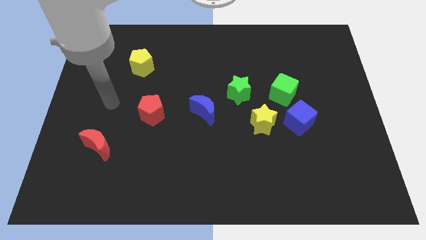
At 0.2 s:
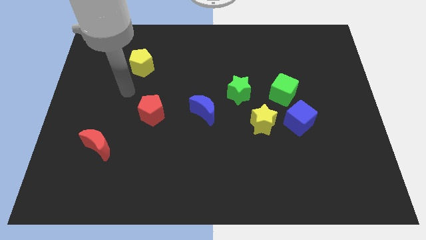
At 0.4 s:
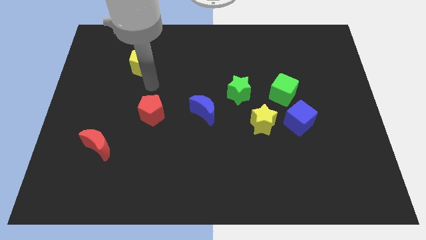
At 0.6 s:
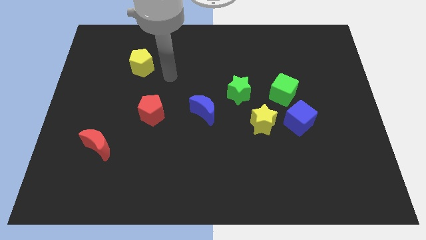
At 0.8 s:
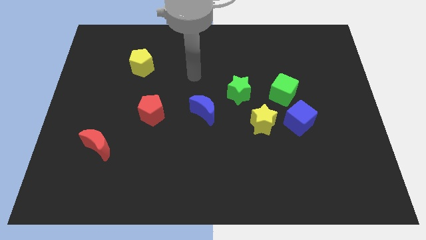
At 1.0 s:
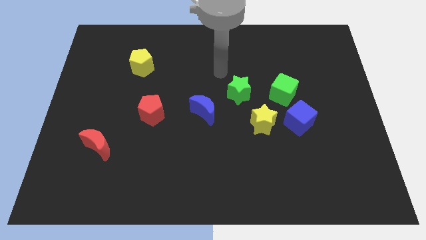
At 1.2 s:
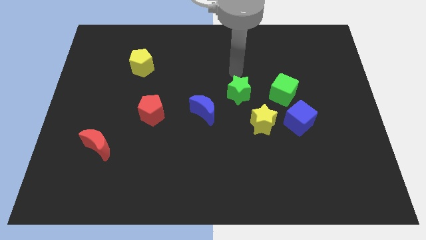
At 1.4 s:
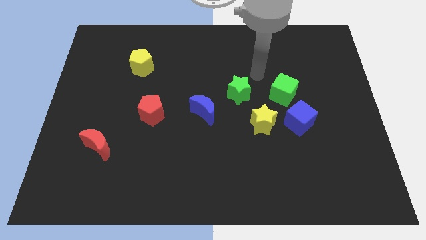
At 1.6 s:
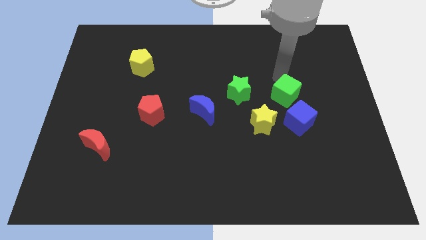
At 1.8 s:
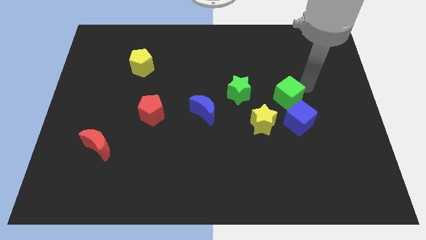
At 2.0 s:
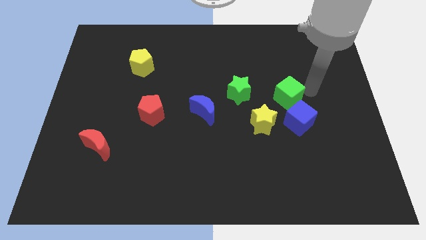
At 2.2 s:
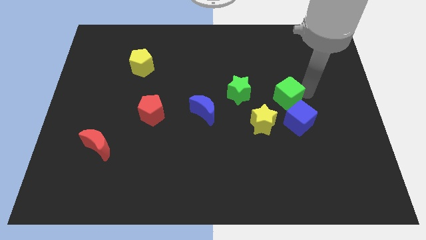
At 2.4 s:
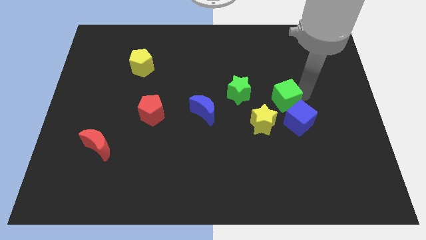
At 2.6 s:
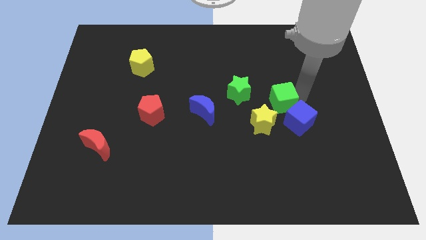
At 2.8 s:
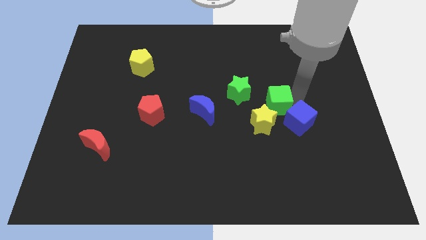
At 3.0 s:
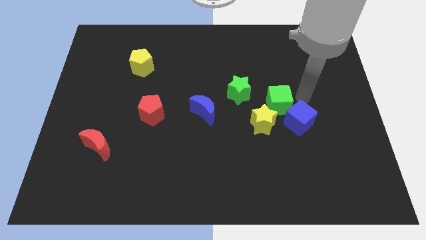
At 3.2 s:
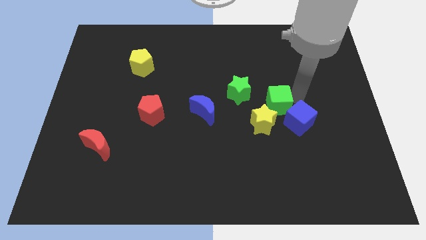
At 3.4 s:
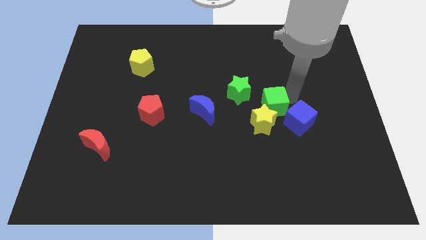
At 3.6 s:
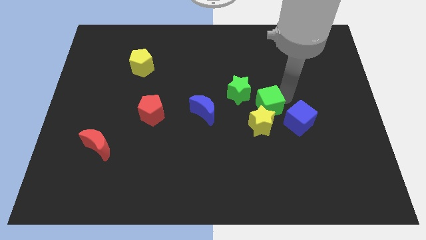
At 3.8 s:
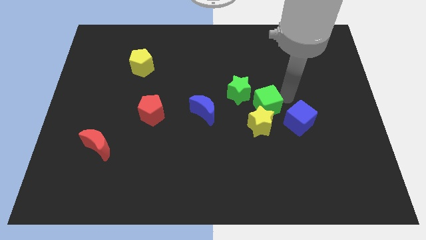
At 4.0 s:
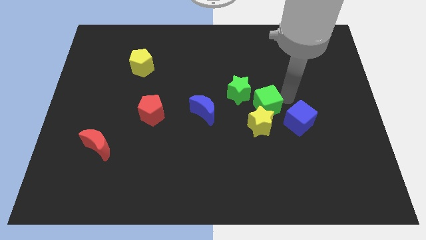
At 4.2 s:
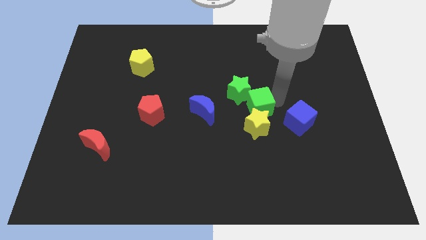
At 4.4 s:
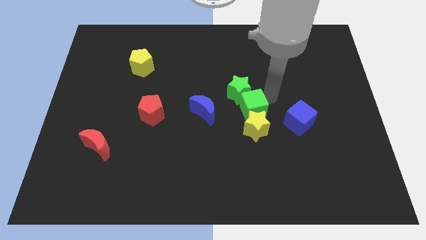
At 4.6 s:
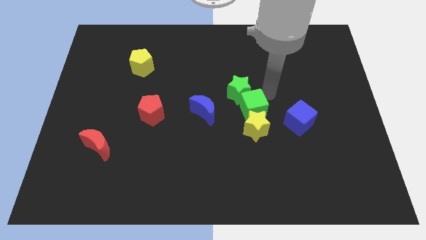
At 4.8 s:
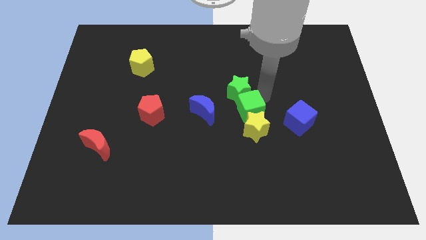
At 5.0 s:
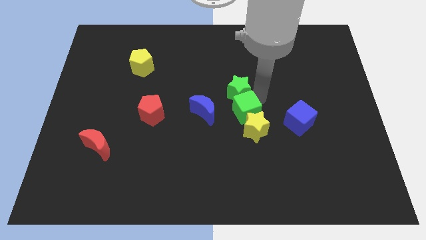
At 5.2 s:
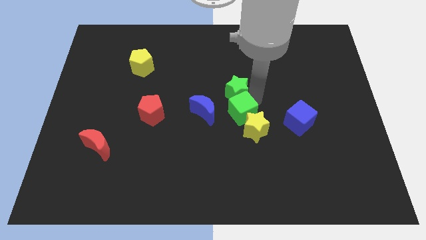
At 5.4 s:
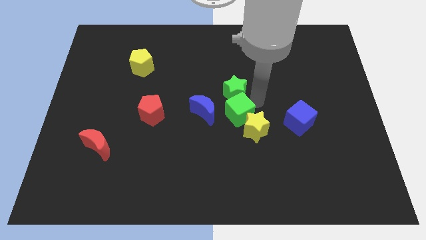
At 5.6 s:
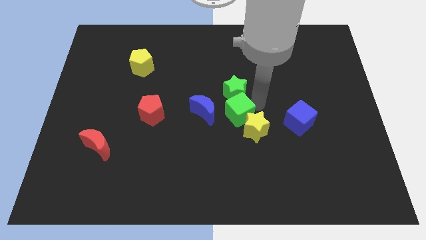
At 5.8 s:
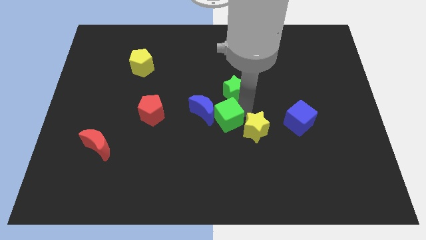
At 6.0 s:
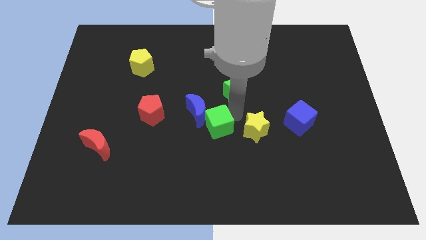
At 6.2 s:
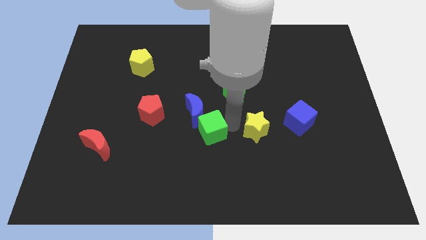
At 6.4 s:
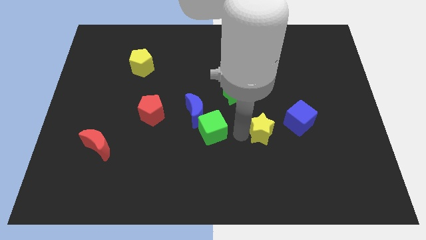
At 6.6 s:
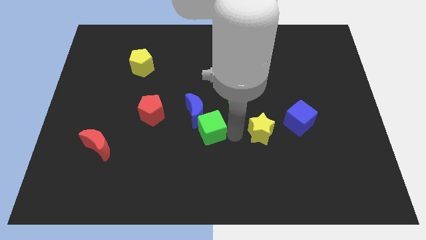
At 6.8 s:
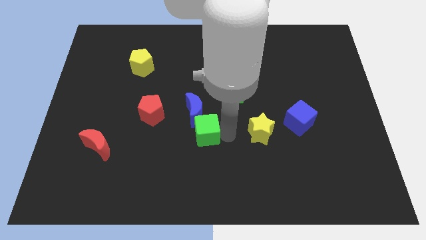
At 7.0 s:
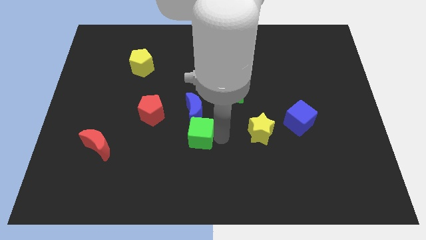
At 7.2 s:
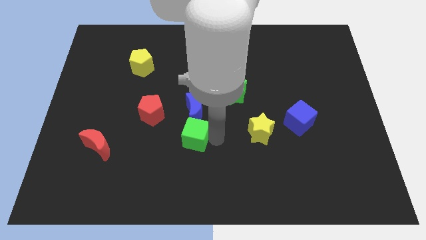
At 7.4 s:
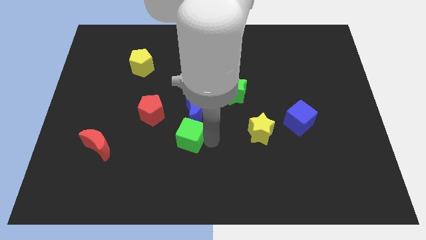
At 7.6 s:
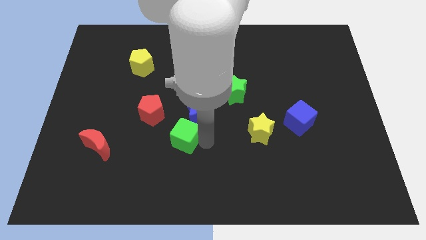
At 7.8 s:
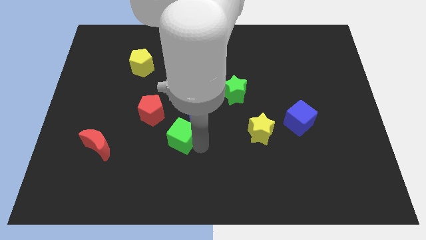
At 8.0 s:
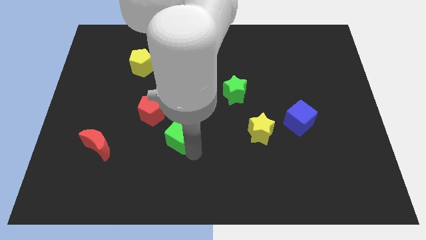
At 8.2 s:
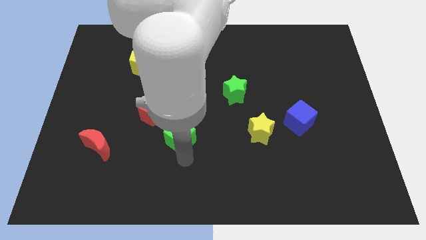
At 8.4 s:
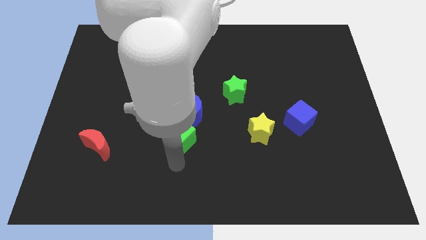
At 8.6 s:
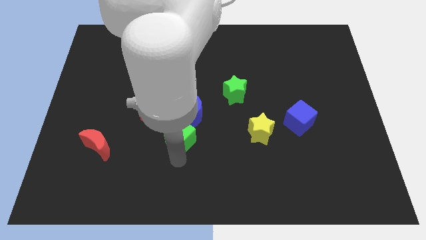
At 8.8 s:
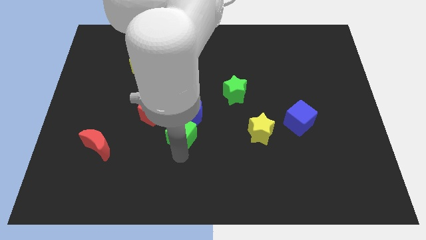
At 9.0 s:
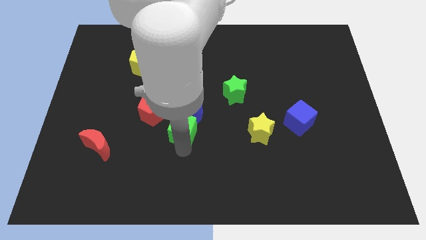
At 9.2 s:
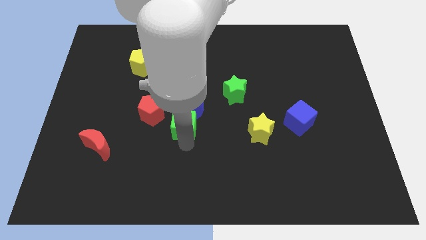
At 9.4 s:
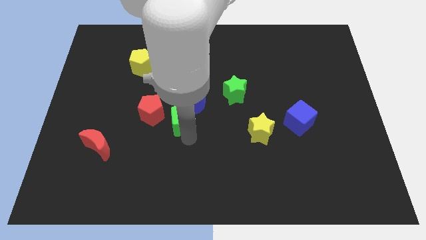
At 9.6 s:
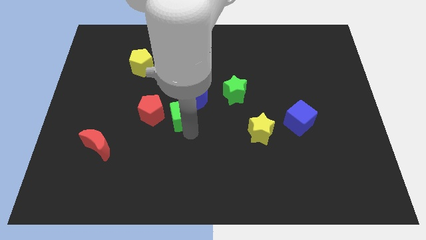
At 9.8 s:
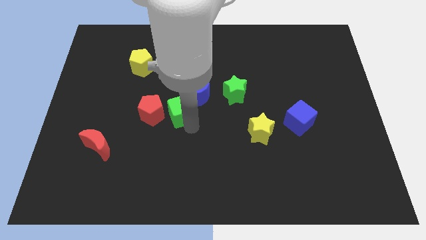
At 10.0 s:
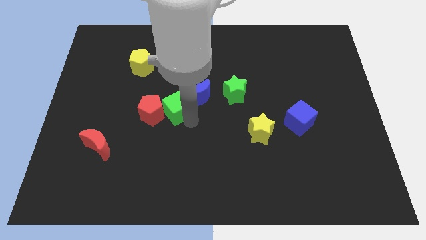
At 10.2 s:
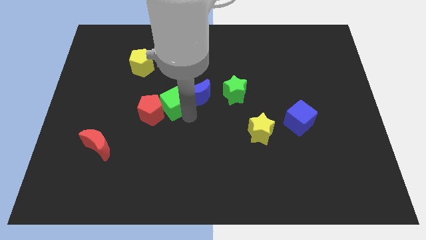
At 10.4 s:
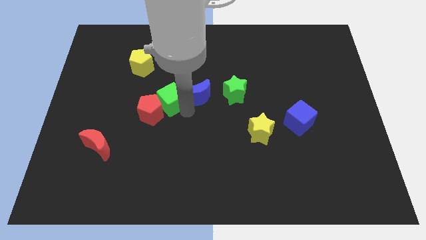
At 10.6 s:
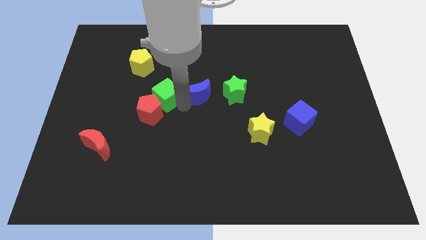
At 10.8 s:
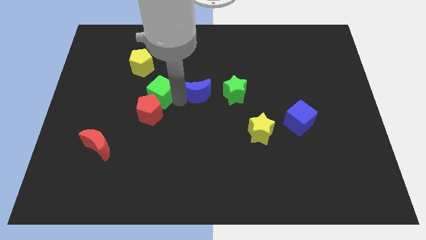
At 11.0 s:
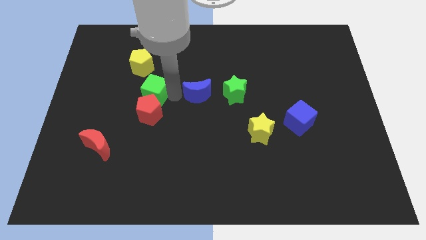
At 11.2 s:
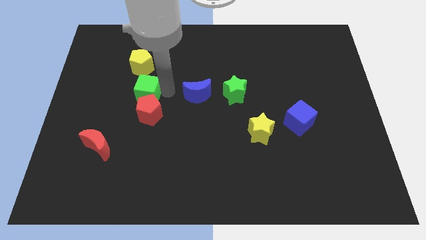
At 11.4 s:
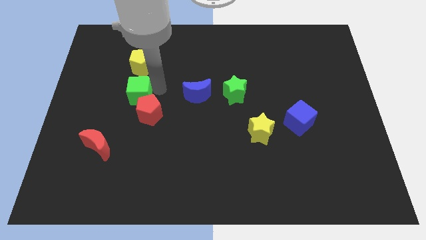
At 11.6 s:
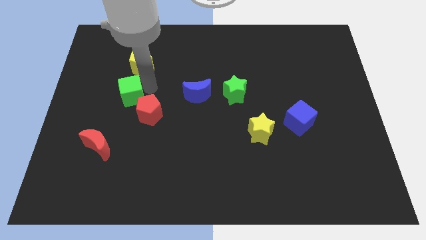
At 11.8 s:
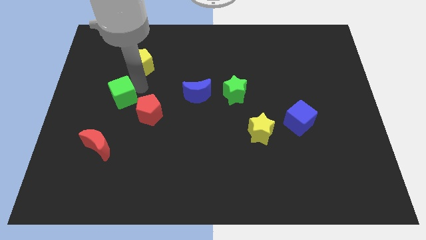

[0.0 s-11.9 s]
move the green cube to the top of the red moon

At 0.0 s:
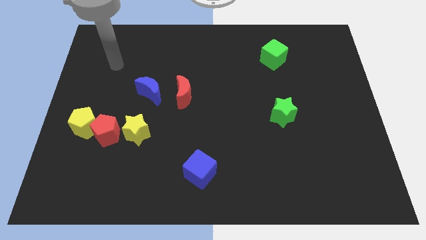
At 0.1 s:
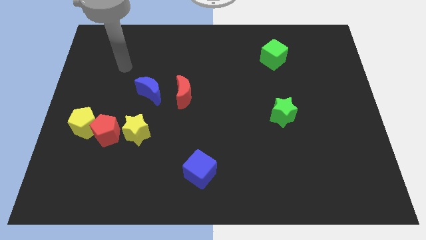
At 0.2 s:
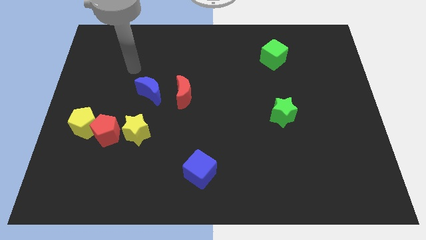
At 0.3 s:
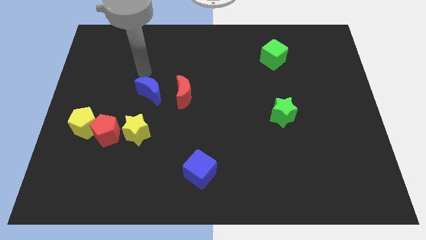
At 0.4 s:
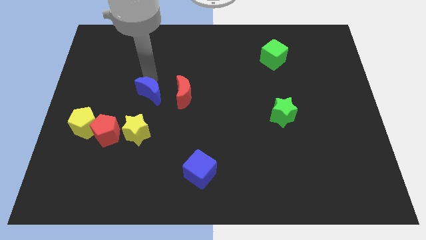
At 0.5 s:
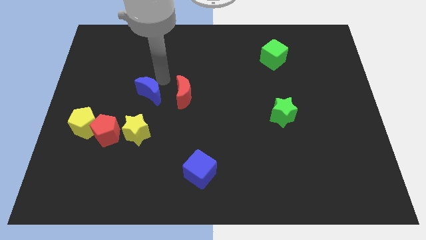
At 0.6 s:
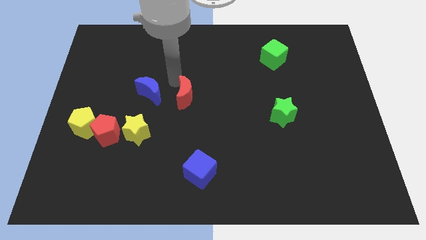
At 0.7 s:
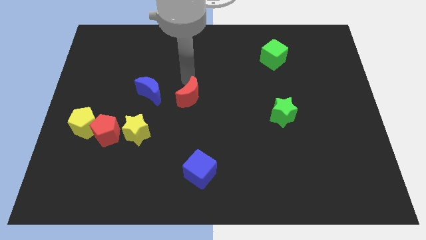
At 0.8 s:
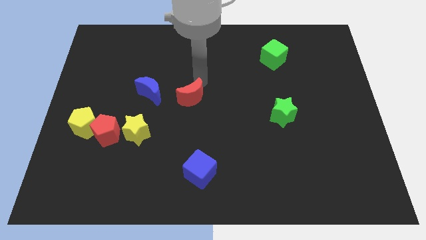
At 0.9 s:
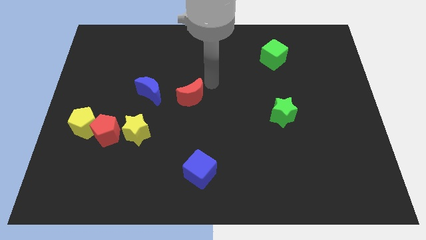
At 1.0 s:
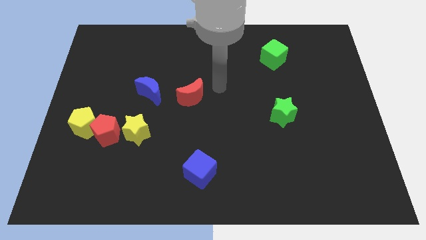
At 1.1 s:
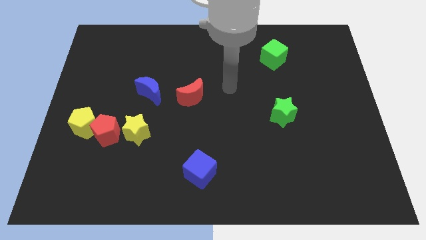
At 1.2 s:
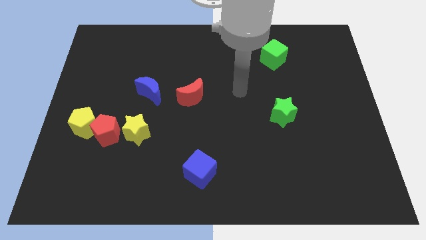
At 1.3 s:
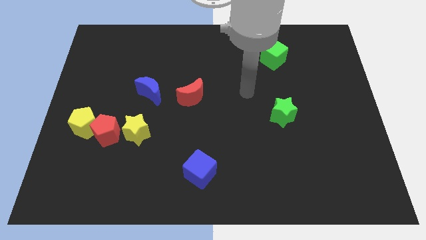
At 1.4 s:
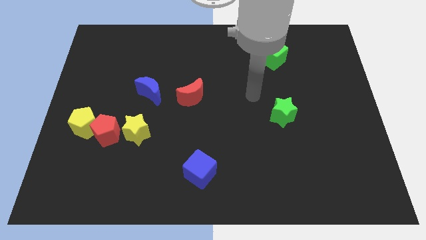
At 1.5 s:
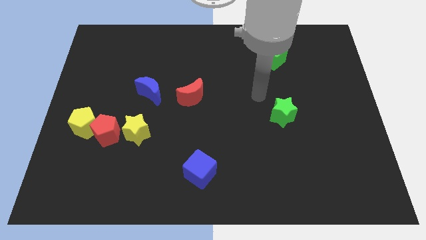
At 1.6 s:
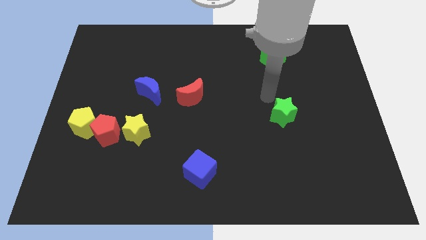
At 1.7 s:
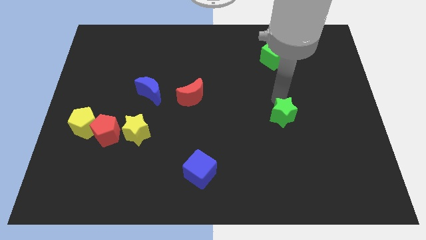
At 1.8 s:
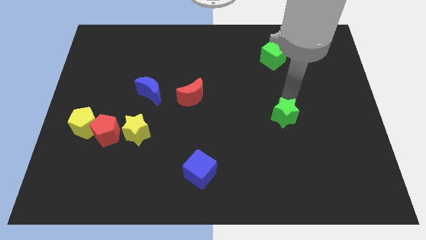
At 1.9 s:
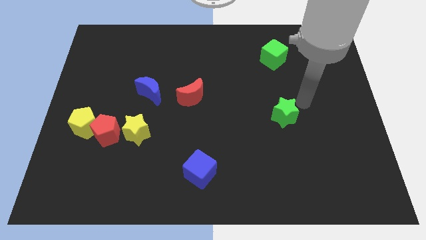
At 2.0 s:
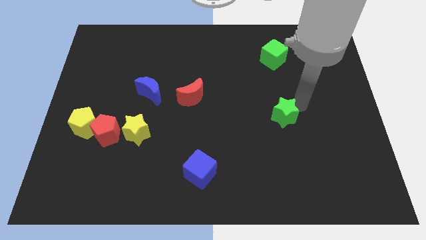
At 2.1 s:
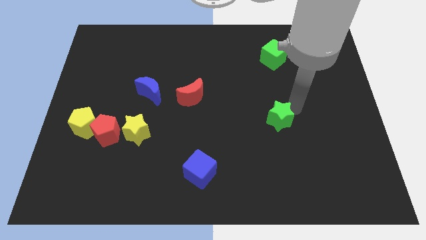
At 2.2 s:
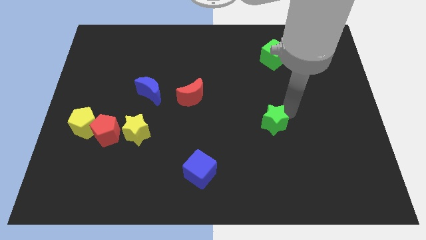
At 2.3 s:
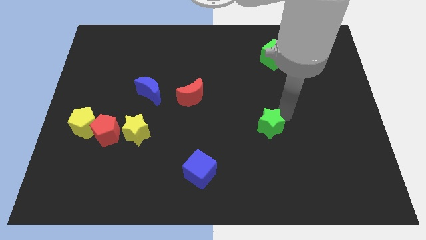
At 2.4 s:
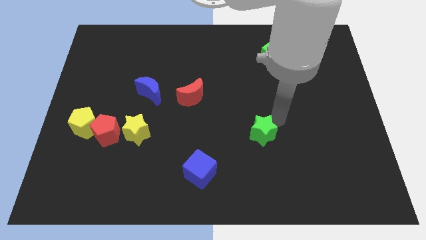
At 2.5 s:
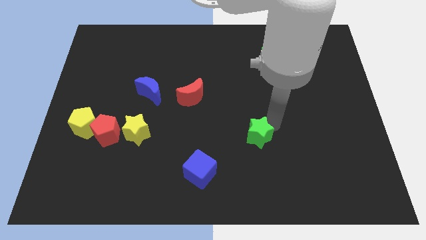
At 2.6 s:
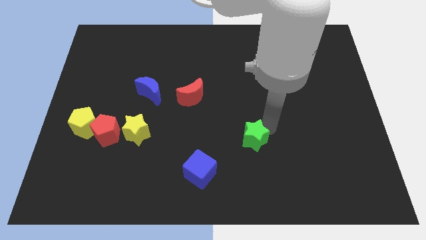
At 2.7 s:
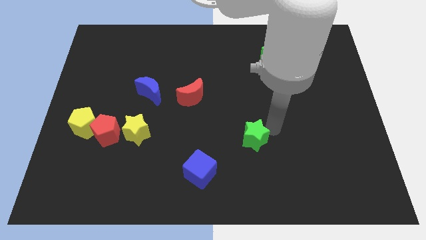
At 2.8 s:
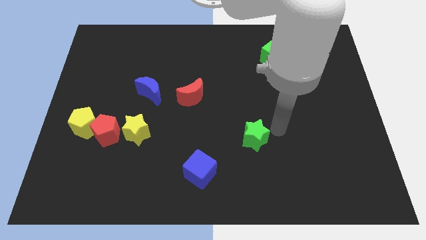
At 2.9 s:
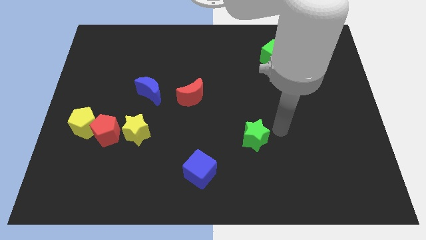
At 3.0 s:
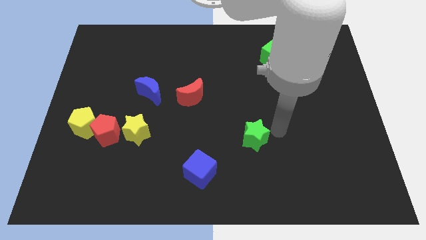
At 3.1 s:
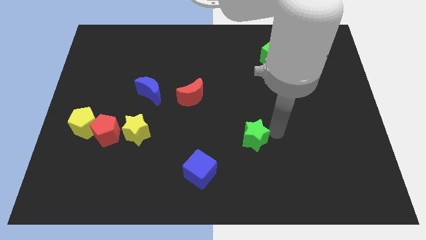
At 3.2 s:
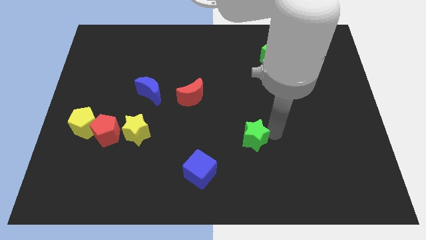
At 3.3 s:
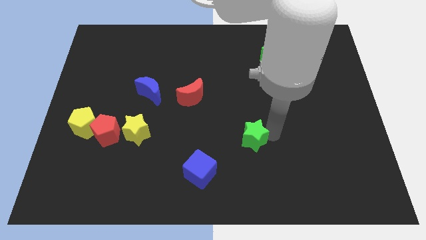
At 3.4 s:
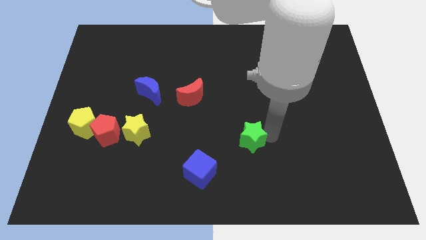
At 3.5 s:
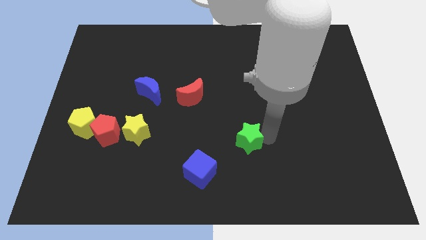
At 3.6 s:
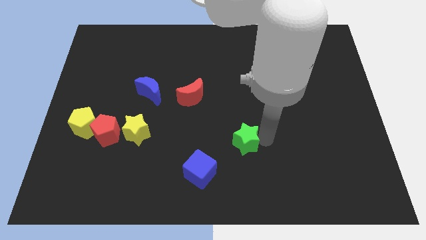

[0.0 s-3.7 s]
slide the green star to the top right of the blue cube
